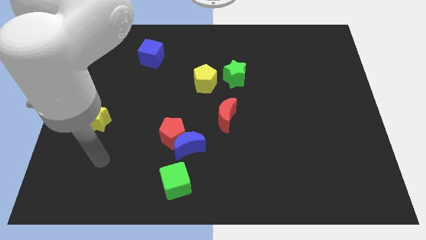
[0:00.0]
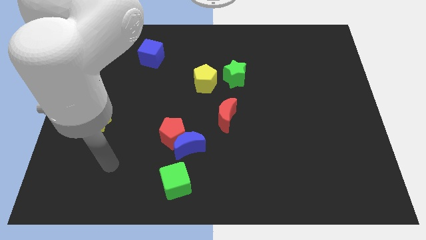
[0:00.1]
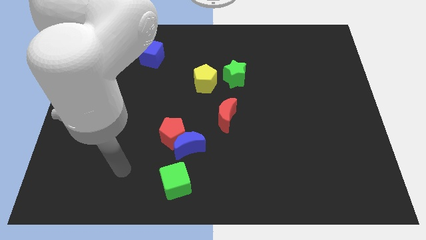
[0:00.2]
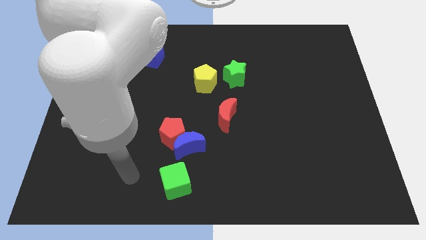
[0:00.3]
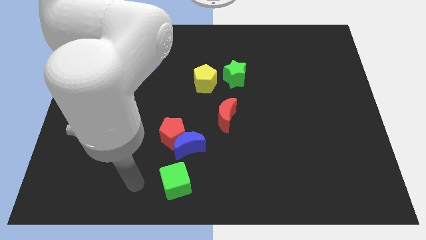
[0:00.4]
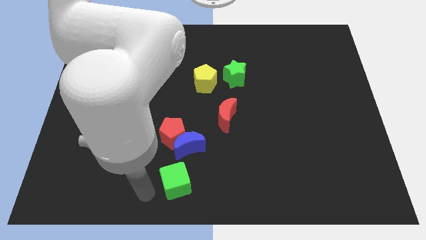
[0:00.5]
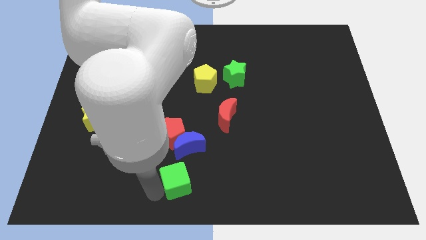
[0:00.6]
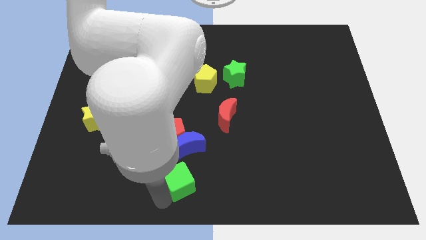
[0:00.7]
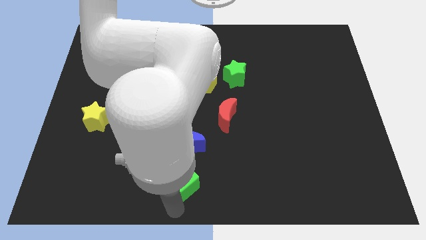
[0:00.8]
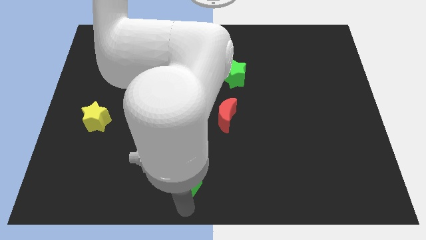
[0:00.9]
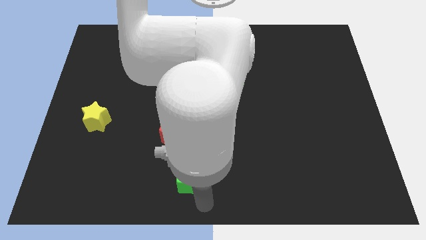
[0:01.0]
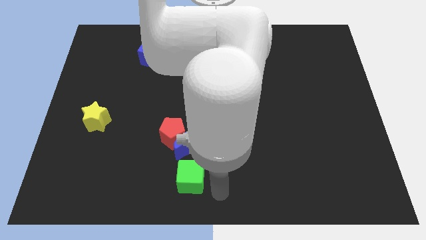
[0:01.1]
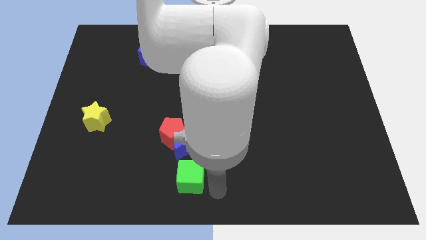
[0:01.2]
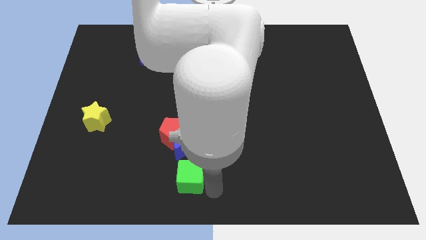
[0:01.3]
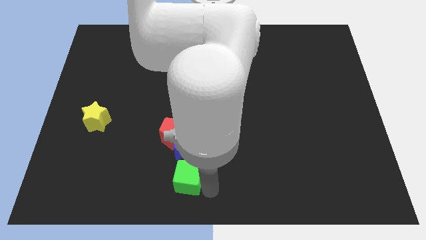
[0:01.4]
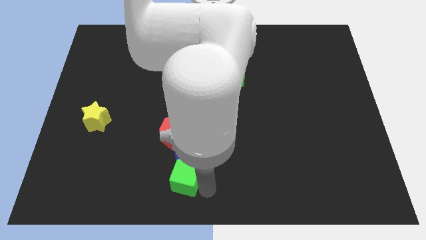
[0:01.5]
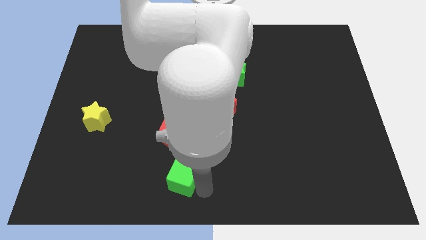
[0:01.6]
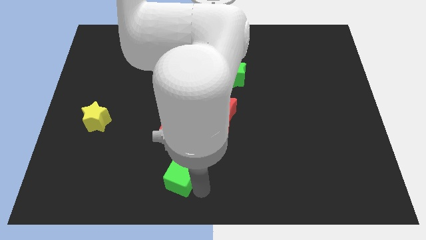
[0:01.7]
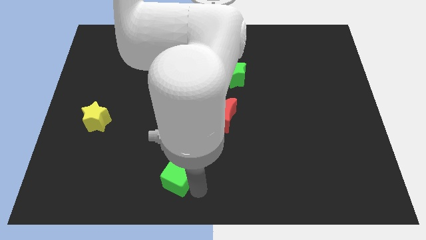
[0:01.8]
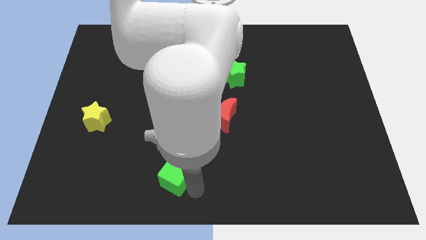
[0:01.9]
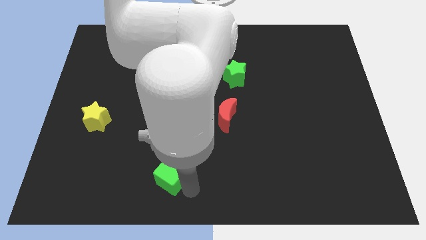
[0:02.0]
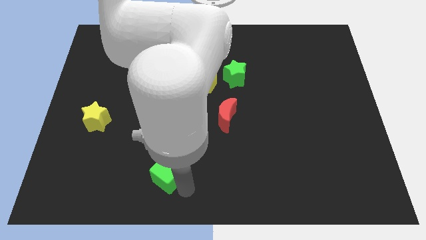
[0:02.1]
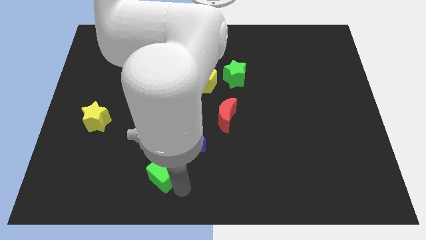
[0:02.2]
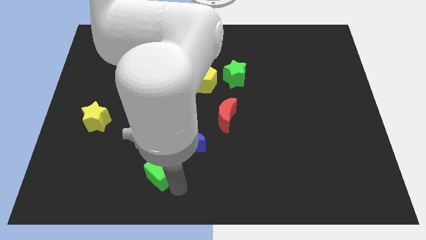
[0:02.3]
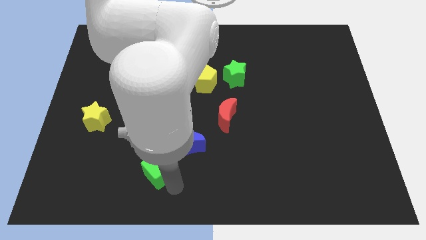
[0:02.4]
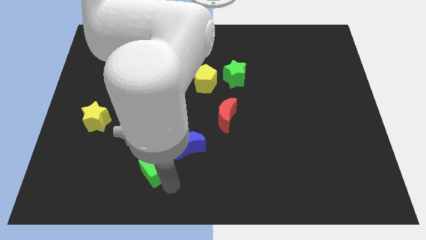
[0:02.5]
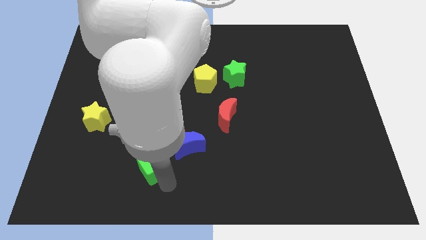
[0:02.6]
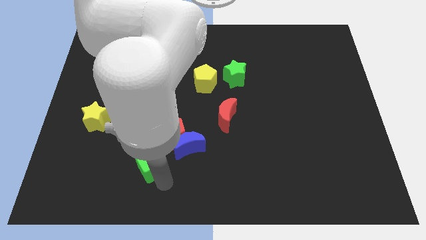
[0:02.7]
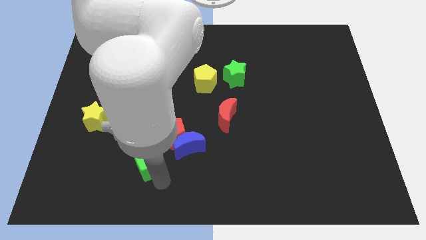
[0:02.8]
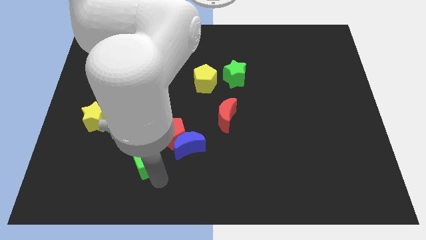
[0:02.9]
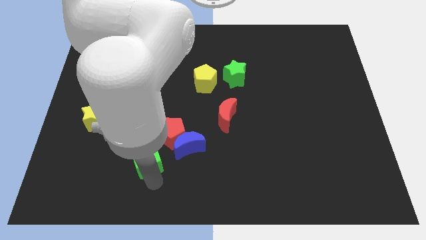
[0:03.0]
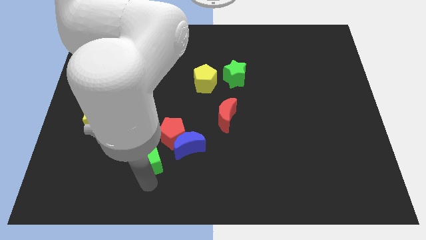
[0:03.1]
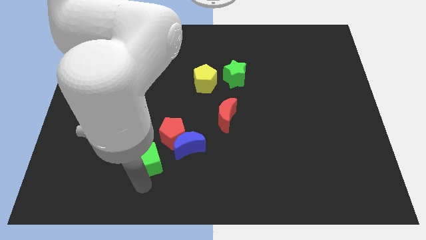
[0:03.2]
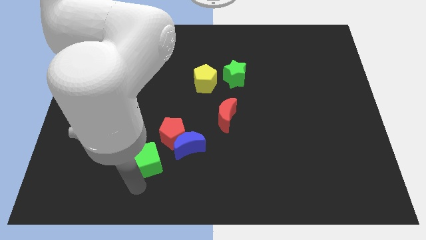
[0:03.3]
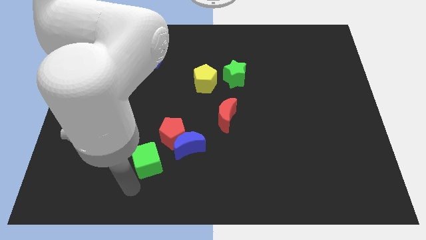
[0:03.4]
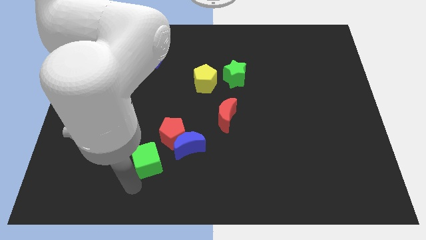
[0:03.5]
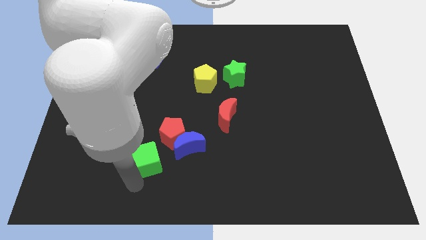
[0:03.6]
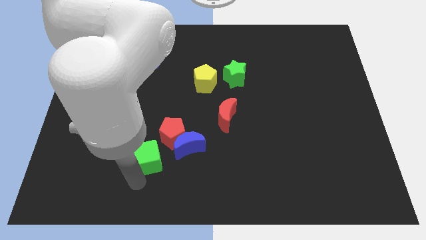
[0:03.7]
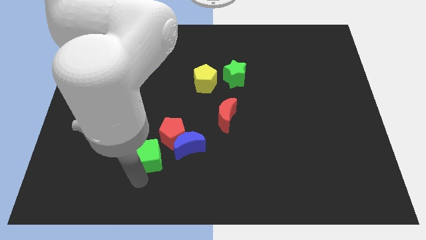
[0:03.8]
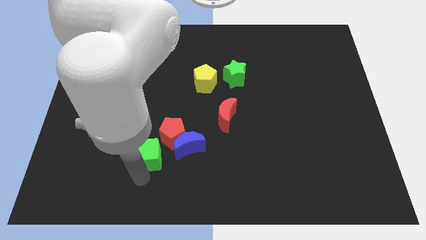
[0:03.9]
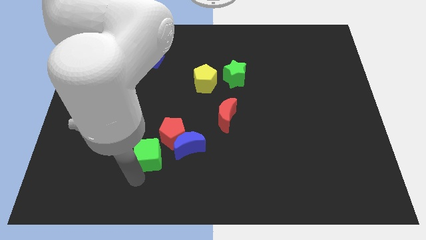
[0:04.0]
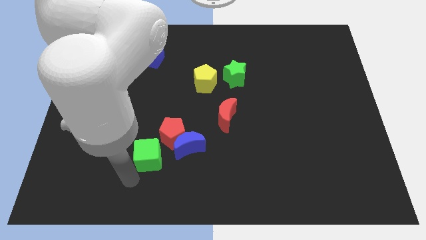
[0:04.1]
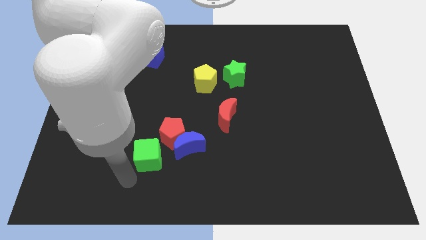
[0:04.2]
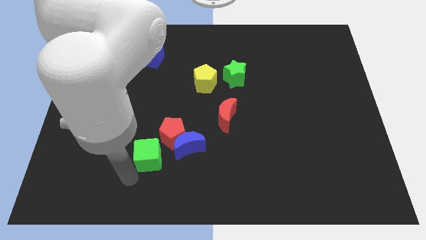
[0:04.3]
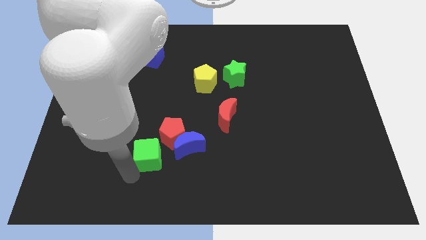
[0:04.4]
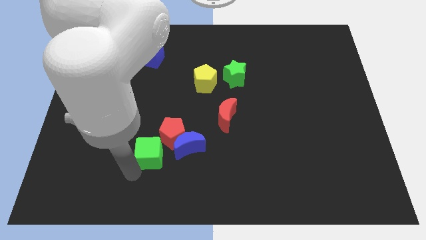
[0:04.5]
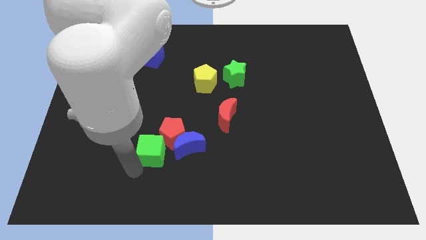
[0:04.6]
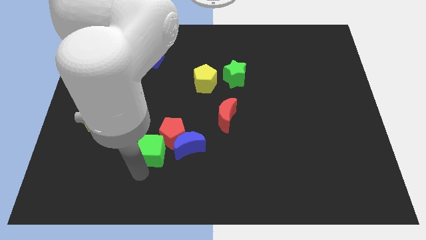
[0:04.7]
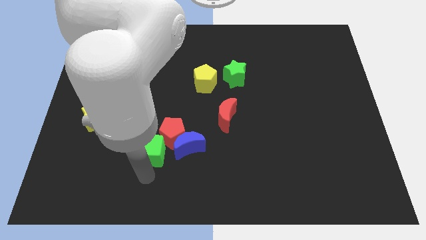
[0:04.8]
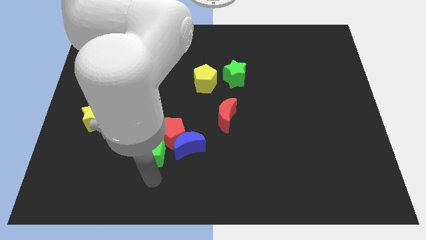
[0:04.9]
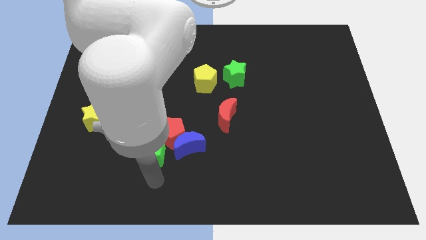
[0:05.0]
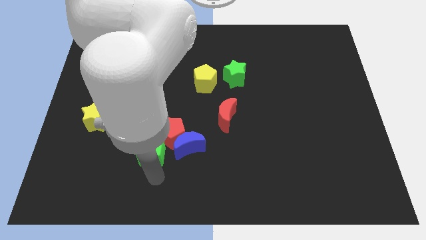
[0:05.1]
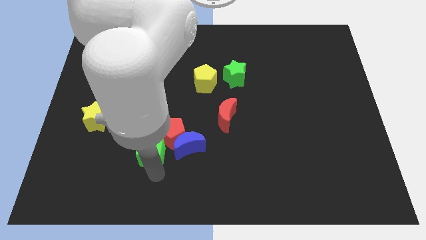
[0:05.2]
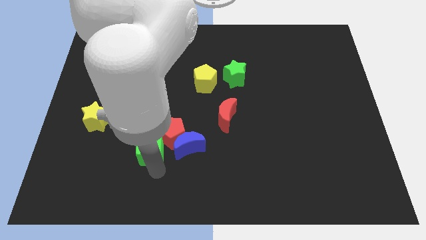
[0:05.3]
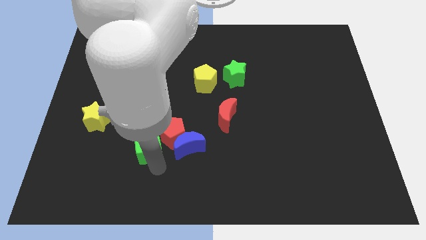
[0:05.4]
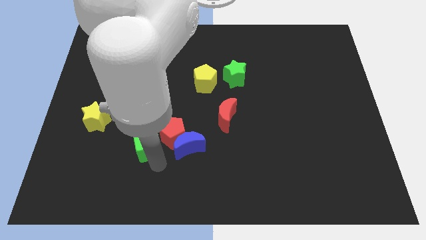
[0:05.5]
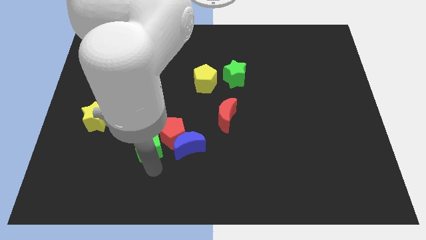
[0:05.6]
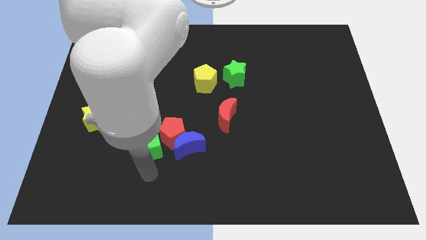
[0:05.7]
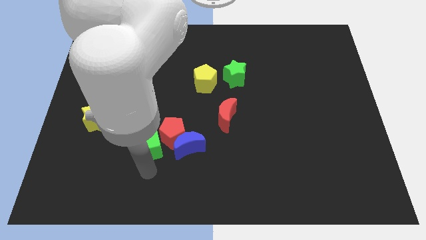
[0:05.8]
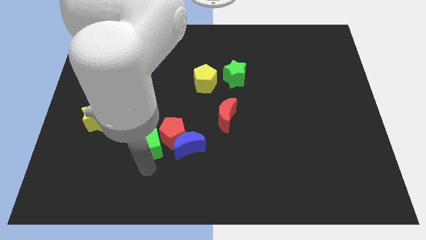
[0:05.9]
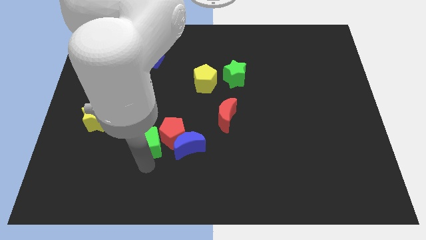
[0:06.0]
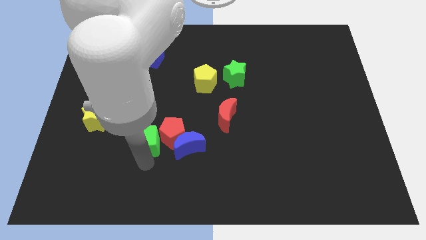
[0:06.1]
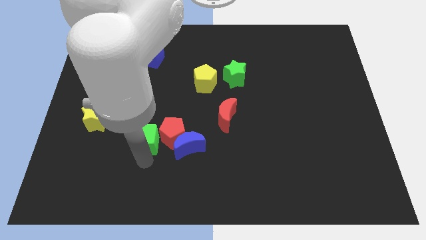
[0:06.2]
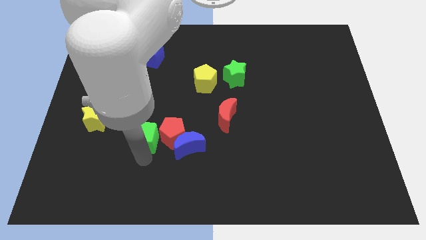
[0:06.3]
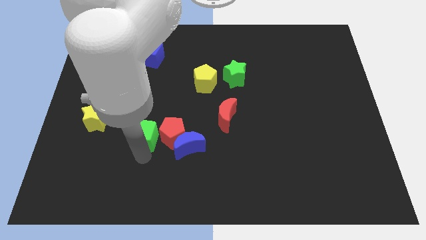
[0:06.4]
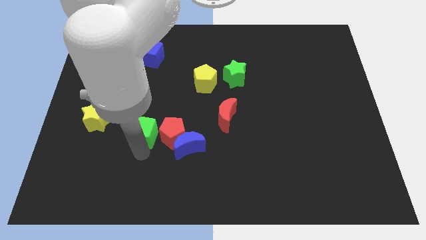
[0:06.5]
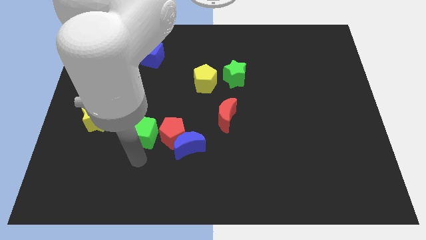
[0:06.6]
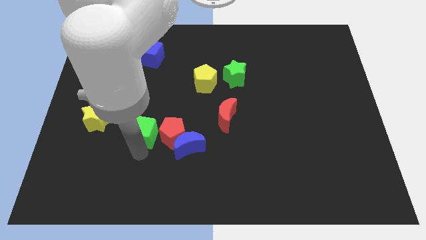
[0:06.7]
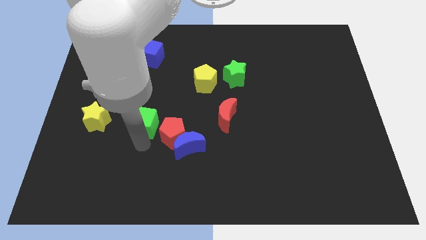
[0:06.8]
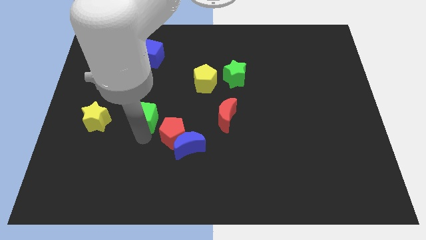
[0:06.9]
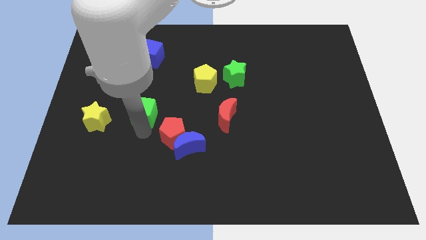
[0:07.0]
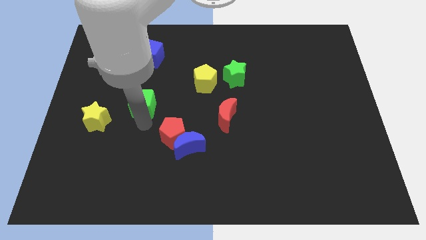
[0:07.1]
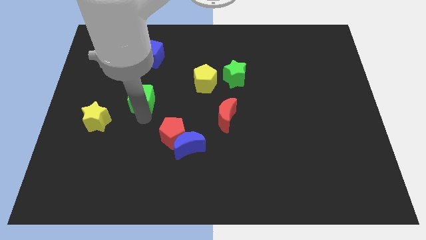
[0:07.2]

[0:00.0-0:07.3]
put the green cube to the bottom of the blue cube

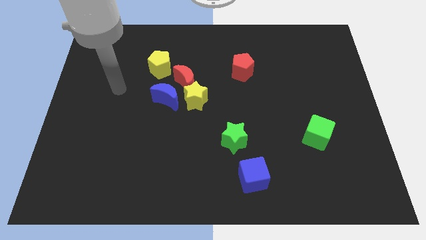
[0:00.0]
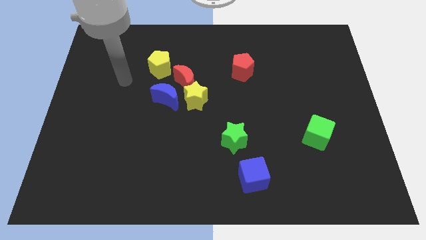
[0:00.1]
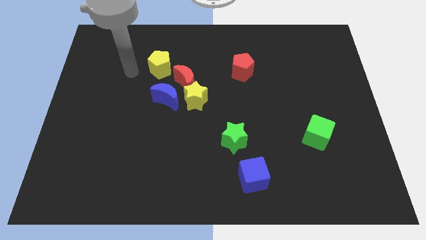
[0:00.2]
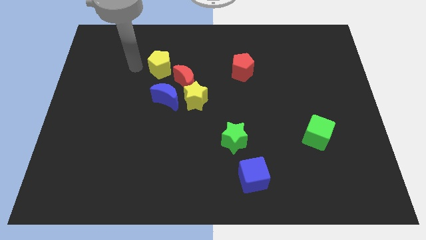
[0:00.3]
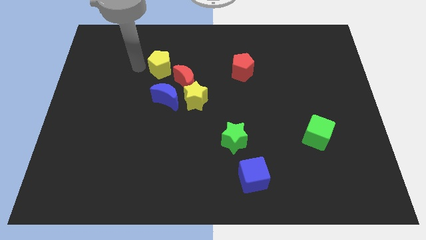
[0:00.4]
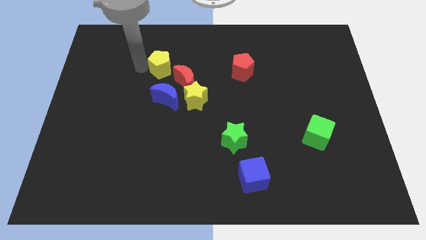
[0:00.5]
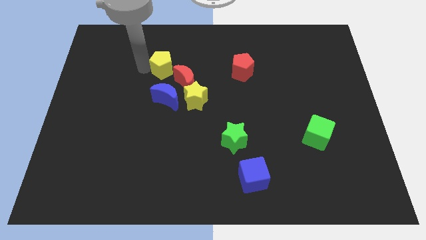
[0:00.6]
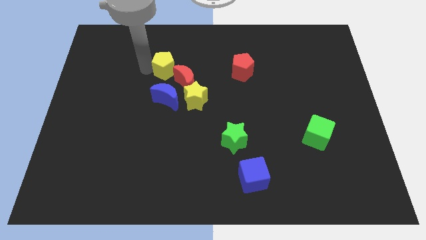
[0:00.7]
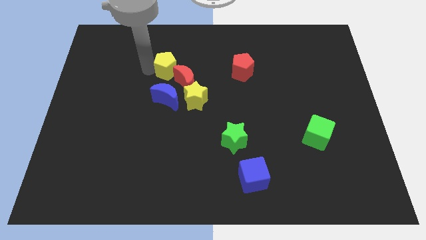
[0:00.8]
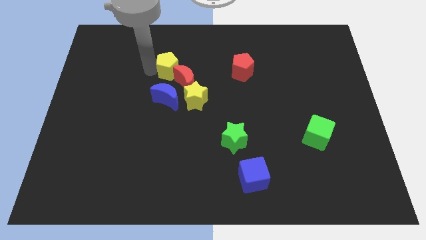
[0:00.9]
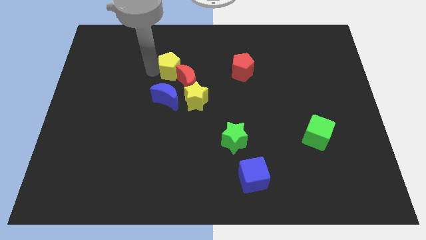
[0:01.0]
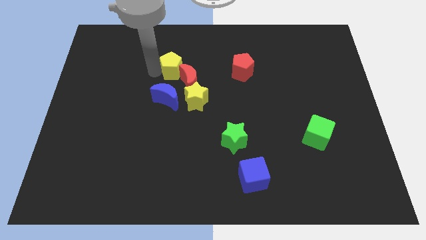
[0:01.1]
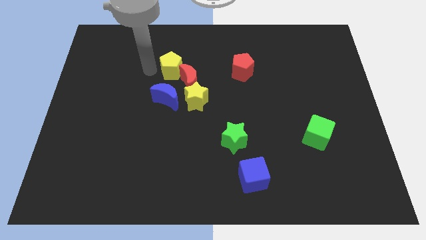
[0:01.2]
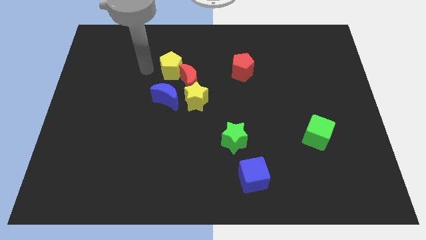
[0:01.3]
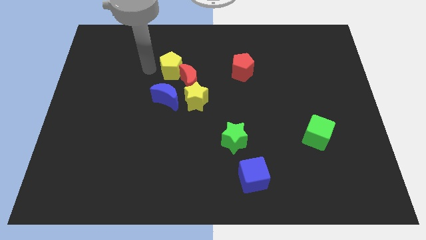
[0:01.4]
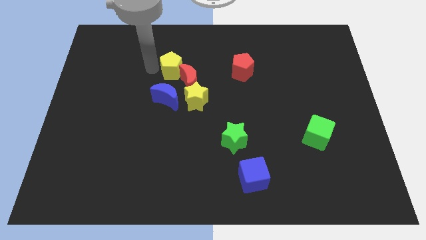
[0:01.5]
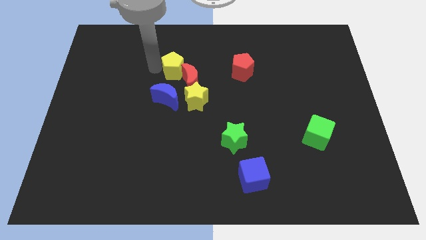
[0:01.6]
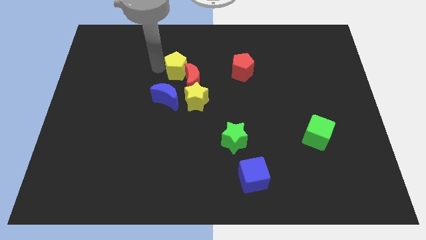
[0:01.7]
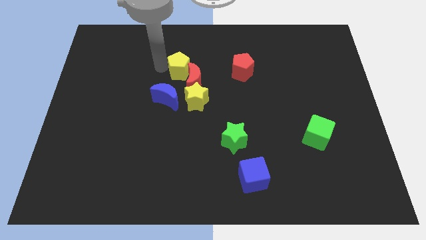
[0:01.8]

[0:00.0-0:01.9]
move the yellow pentagon to the left of the red pentagon
